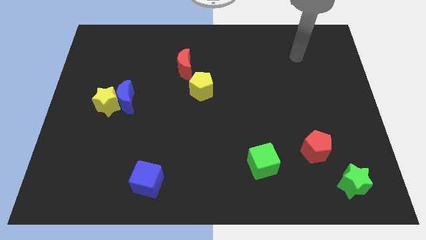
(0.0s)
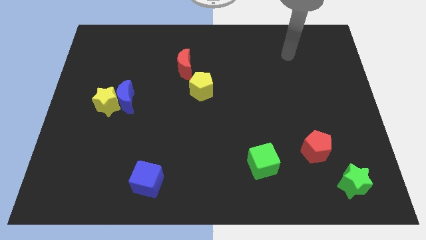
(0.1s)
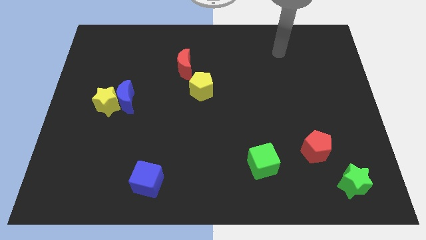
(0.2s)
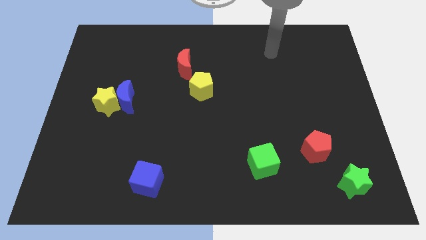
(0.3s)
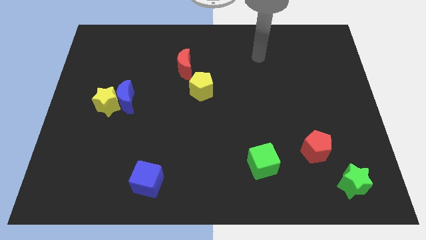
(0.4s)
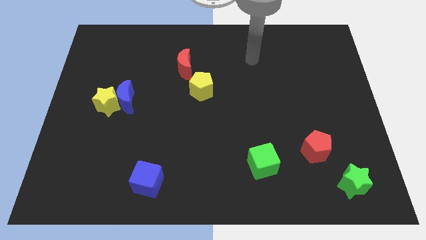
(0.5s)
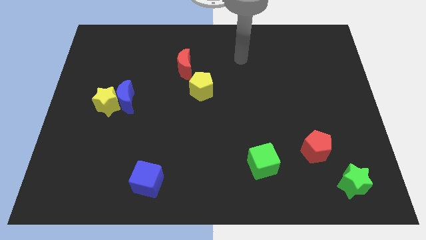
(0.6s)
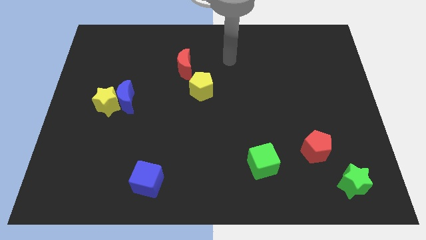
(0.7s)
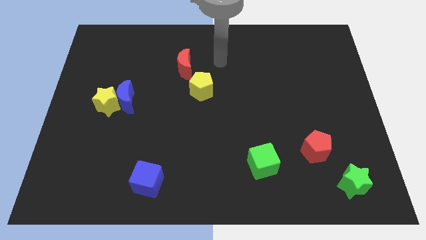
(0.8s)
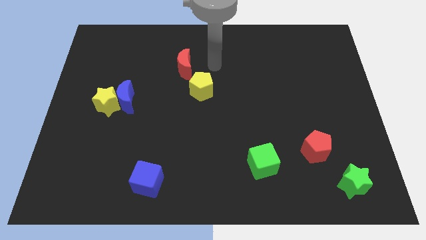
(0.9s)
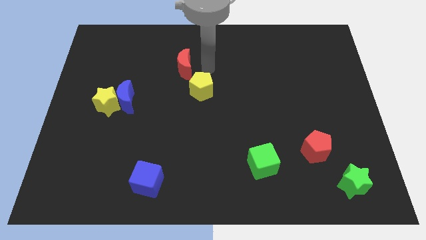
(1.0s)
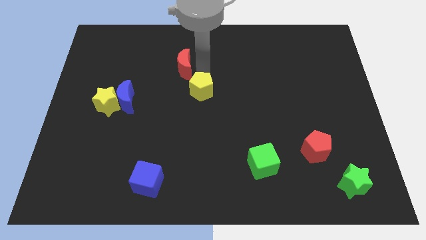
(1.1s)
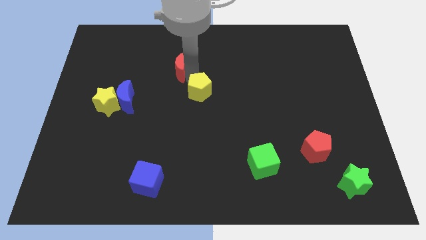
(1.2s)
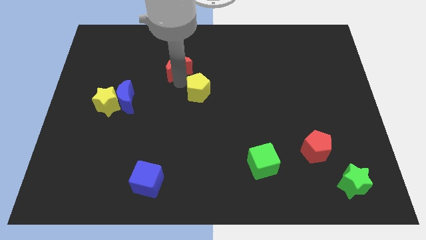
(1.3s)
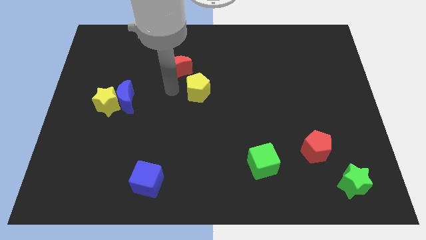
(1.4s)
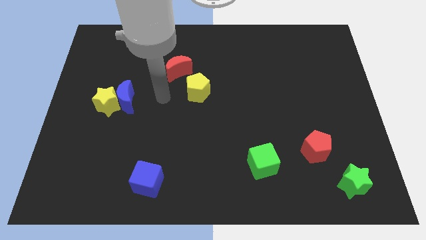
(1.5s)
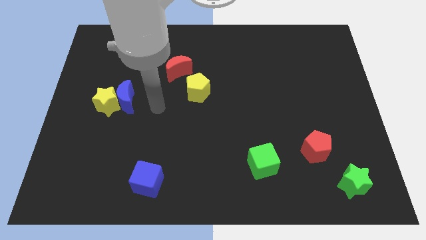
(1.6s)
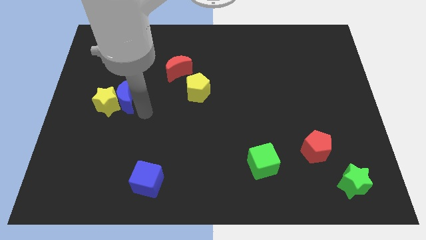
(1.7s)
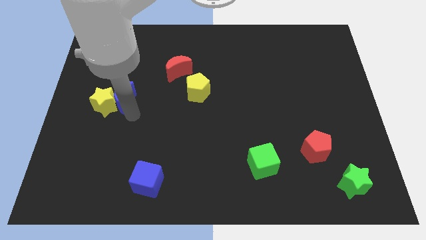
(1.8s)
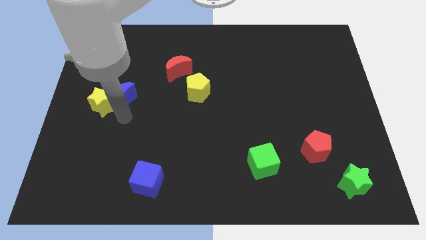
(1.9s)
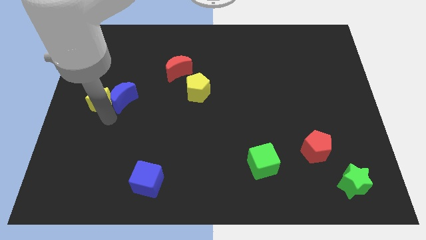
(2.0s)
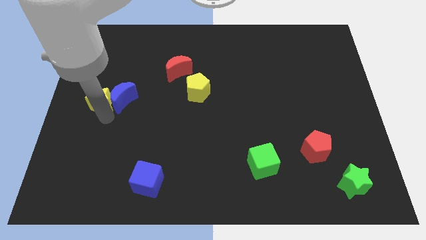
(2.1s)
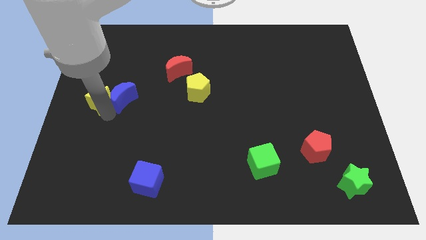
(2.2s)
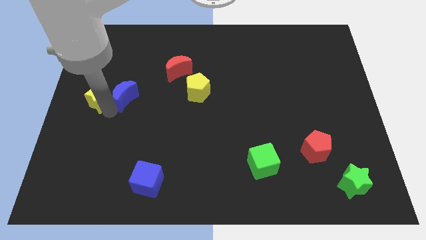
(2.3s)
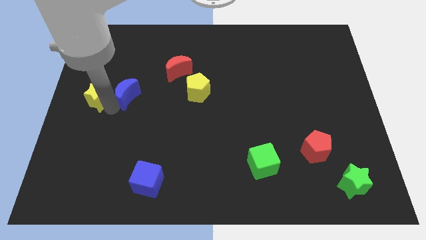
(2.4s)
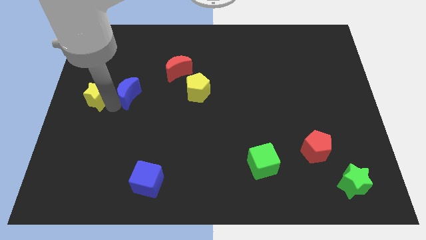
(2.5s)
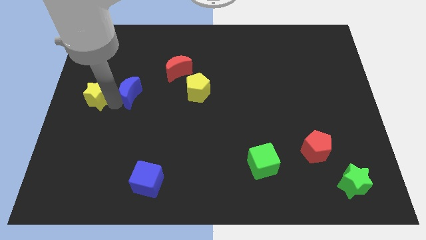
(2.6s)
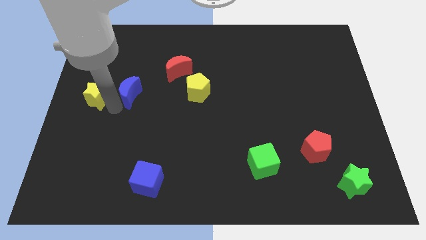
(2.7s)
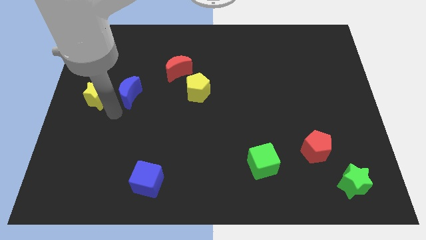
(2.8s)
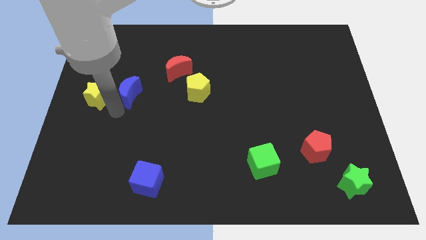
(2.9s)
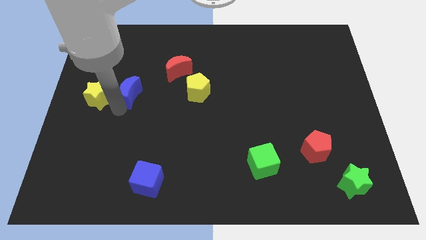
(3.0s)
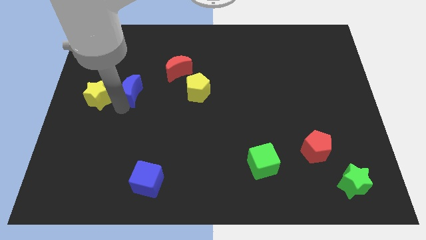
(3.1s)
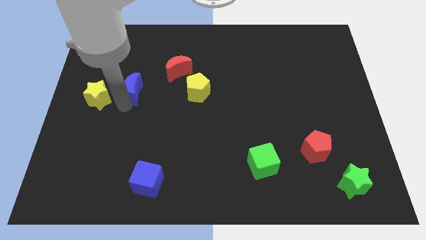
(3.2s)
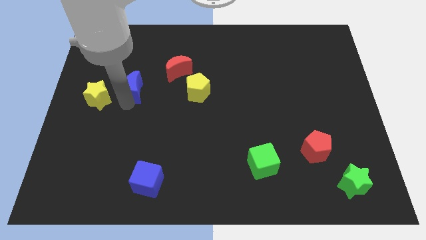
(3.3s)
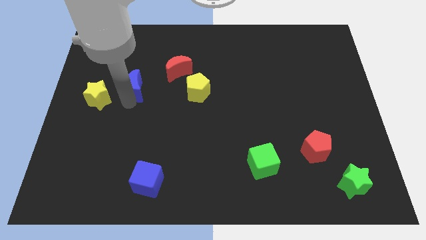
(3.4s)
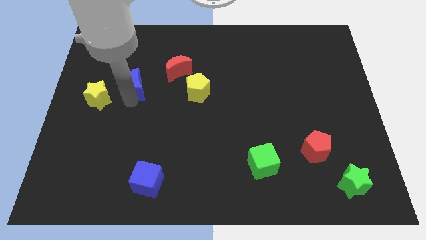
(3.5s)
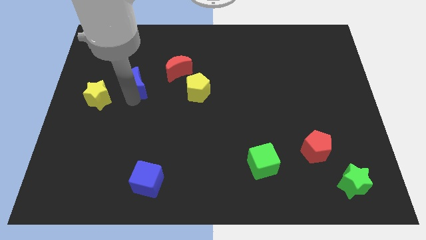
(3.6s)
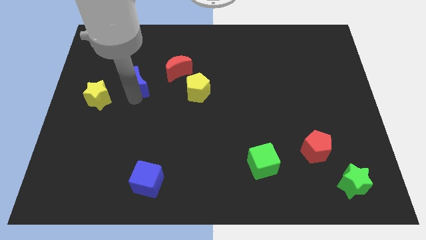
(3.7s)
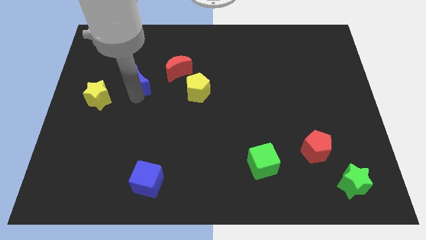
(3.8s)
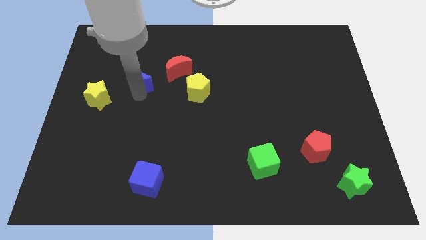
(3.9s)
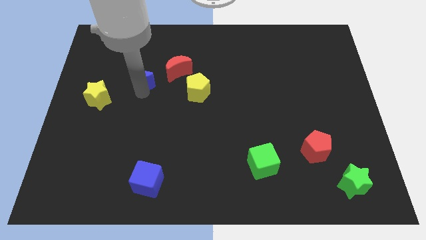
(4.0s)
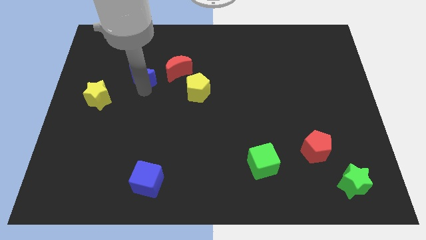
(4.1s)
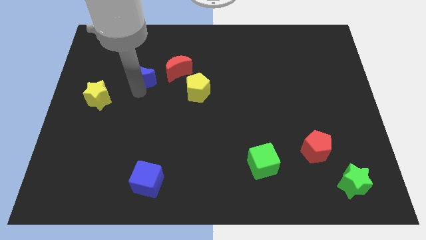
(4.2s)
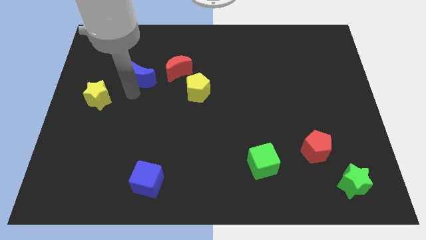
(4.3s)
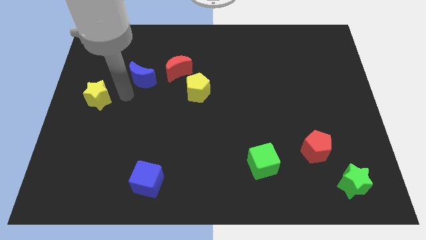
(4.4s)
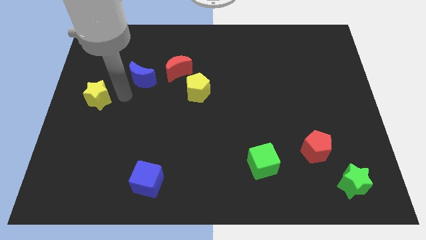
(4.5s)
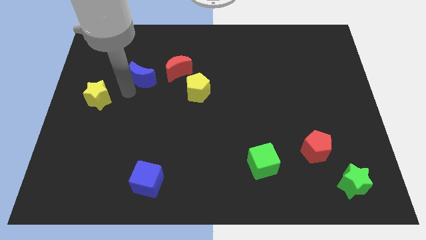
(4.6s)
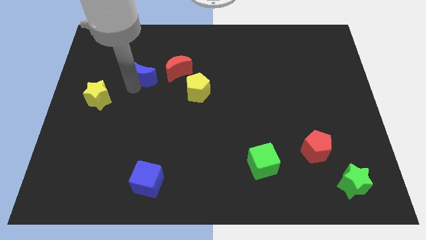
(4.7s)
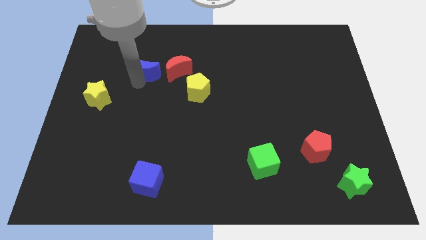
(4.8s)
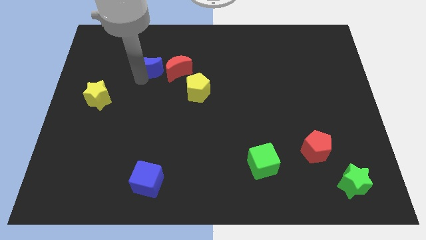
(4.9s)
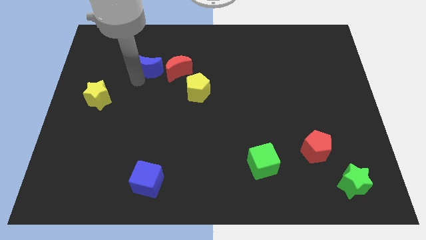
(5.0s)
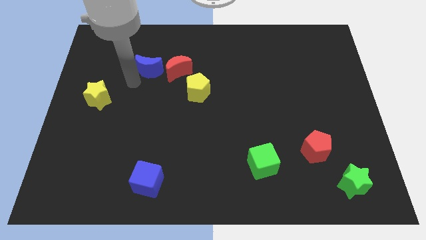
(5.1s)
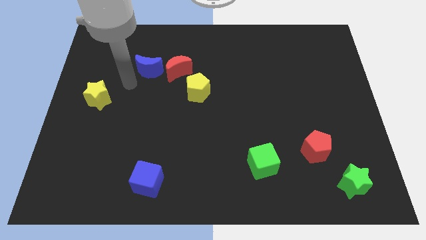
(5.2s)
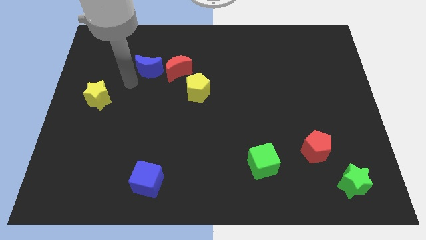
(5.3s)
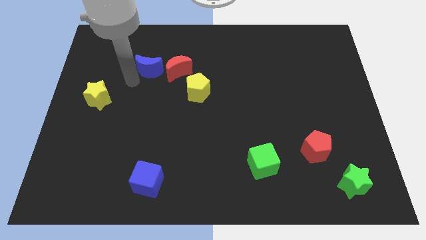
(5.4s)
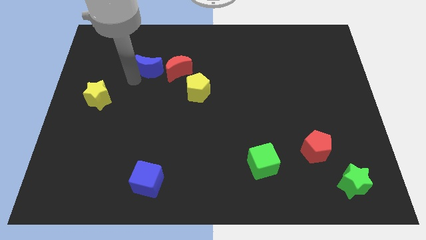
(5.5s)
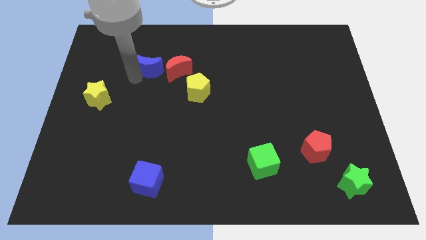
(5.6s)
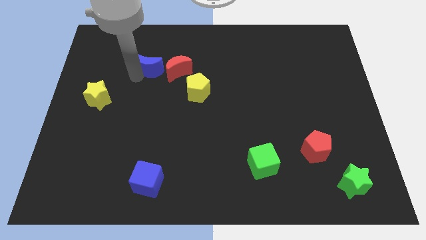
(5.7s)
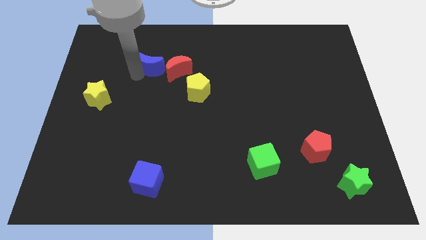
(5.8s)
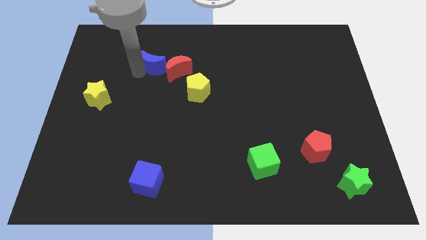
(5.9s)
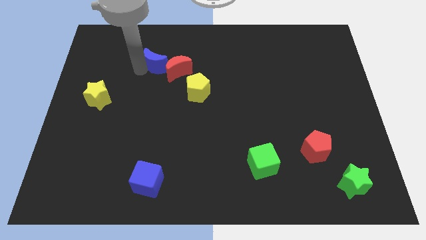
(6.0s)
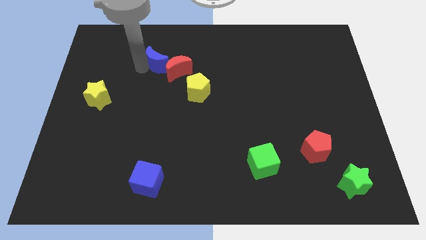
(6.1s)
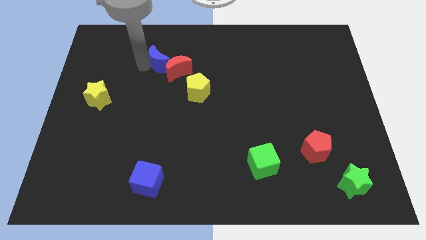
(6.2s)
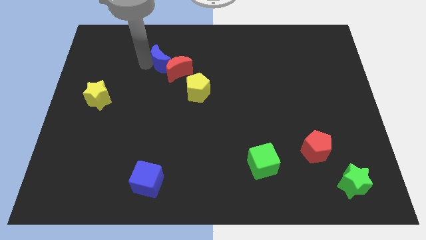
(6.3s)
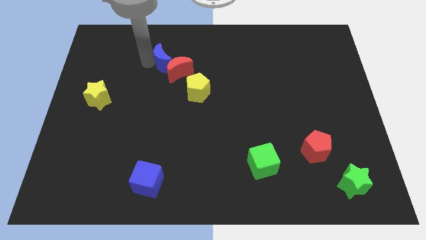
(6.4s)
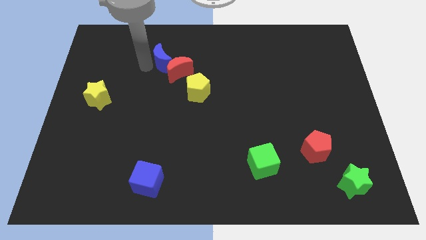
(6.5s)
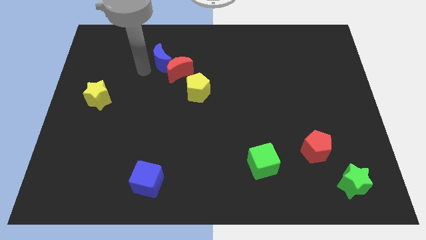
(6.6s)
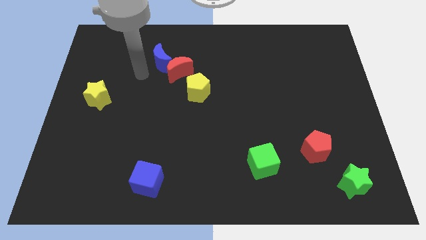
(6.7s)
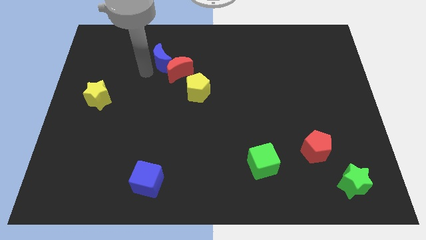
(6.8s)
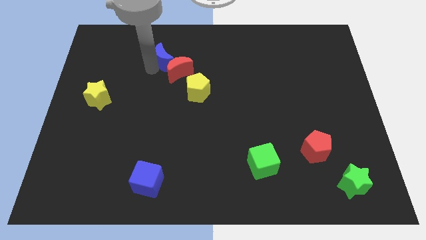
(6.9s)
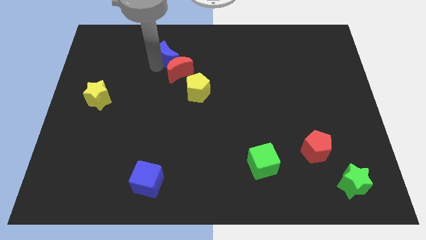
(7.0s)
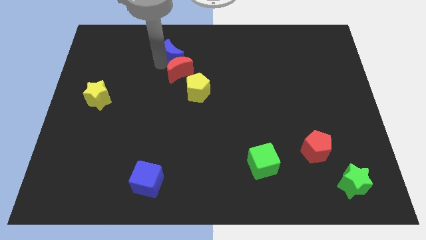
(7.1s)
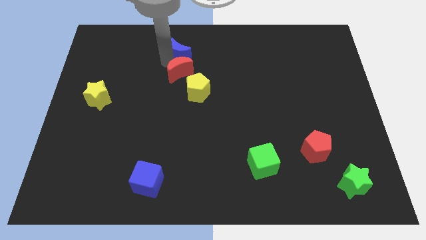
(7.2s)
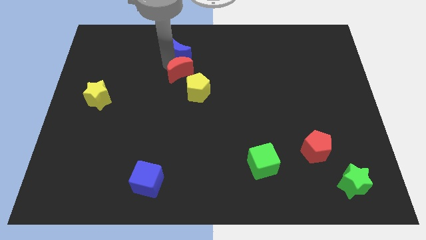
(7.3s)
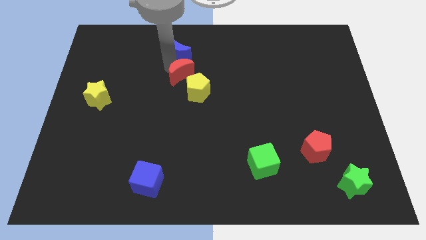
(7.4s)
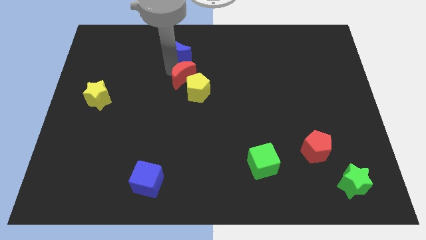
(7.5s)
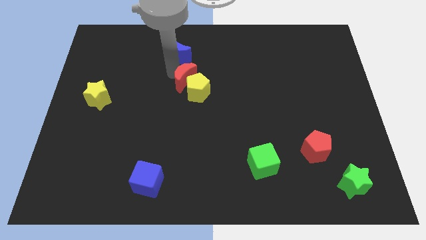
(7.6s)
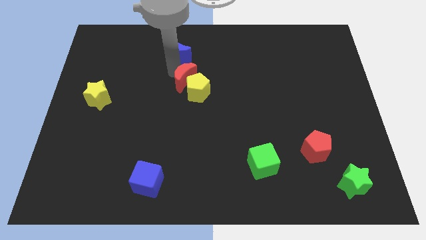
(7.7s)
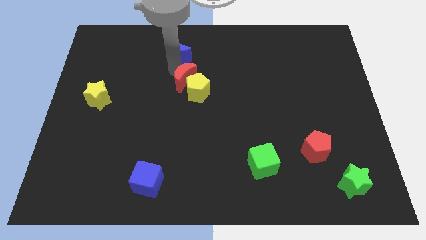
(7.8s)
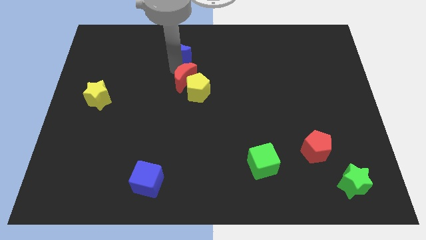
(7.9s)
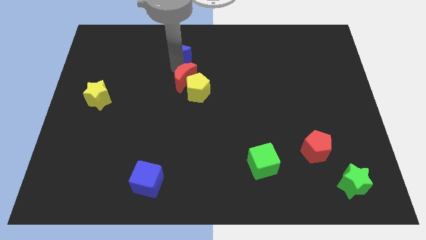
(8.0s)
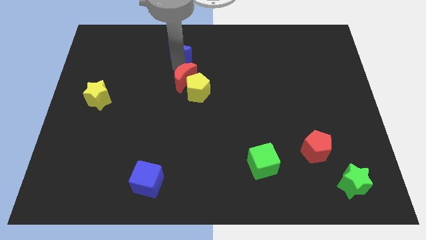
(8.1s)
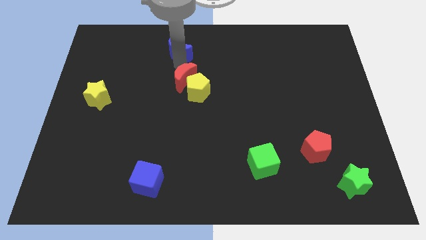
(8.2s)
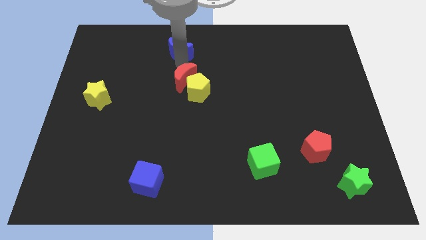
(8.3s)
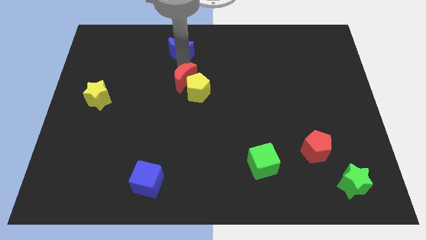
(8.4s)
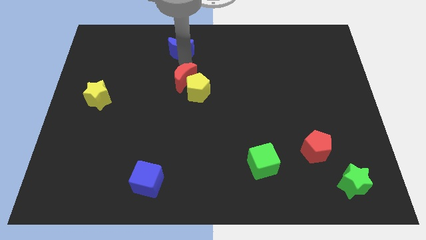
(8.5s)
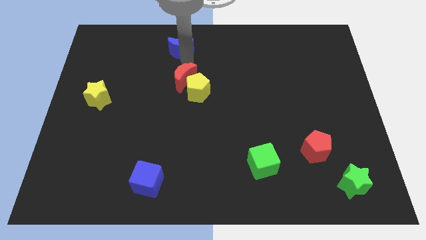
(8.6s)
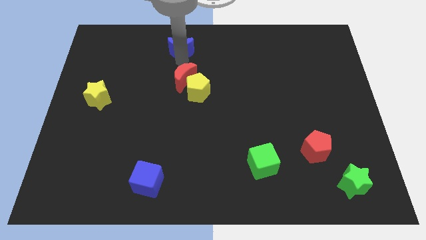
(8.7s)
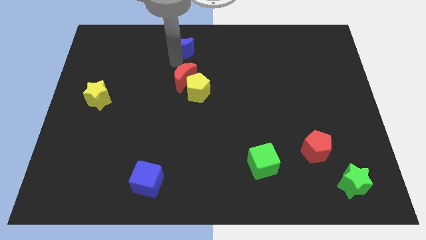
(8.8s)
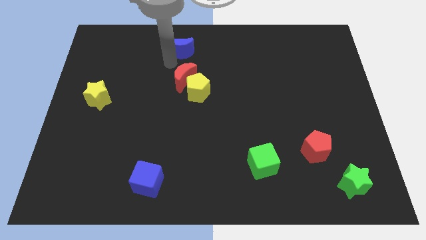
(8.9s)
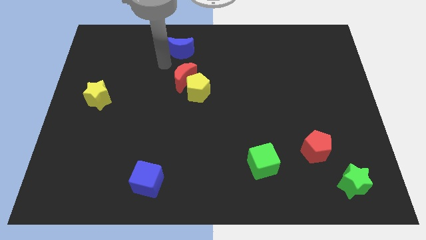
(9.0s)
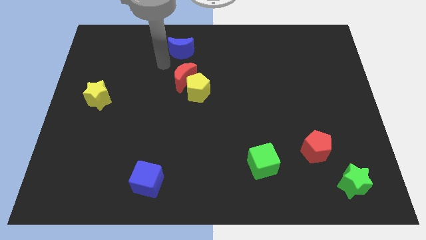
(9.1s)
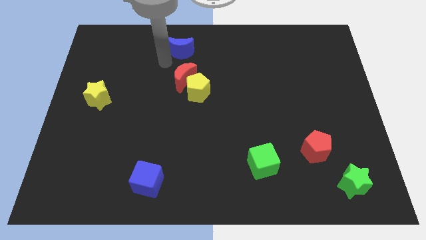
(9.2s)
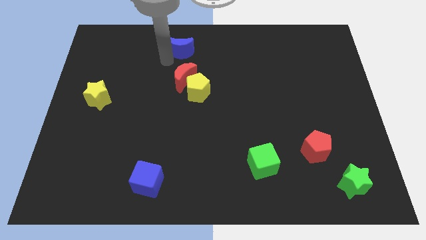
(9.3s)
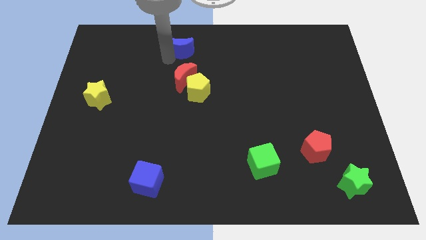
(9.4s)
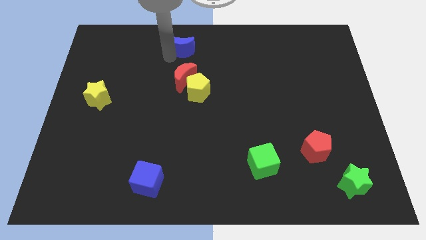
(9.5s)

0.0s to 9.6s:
push the blue moon to the towards your base
